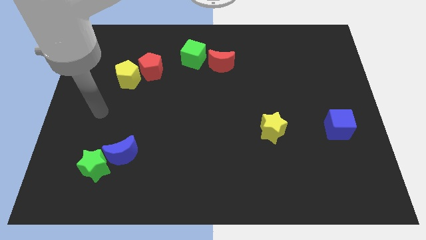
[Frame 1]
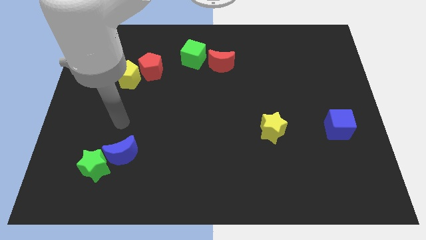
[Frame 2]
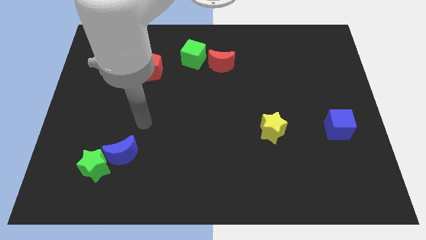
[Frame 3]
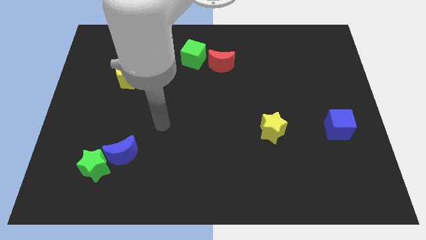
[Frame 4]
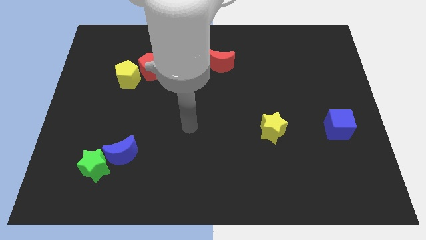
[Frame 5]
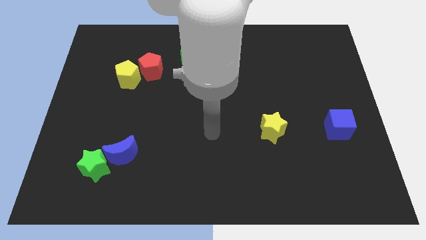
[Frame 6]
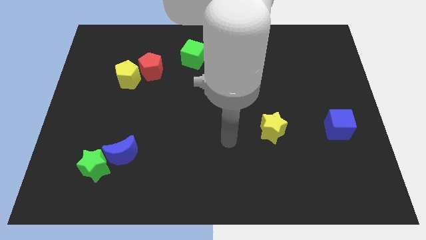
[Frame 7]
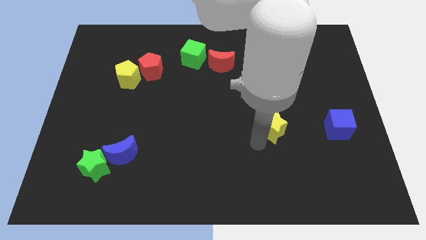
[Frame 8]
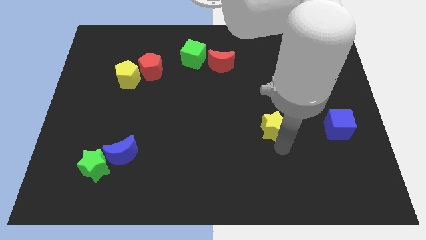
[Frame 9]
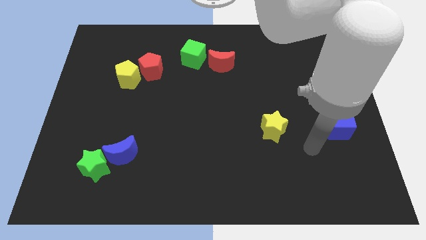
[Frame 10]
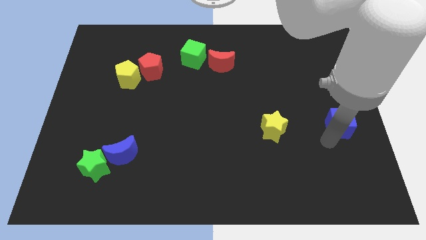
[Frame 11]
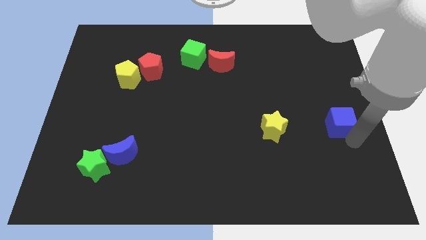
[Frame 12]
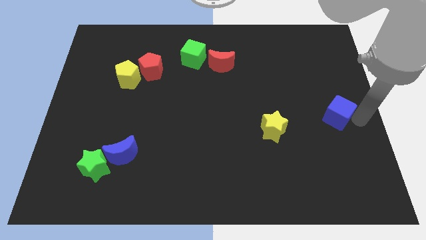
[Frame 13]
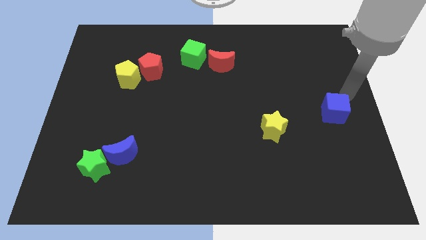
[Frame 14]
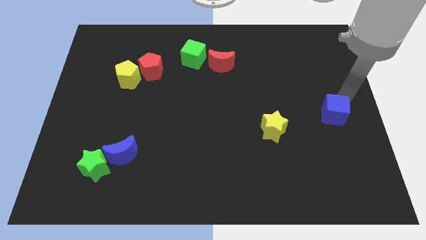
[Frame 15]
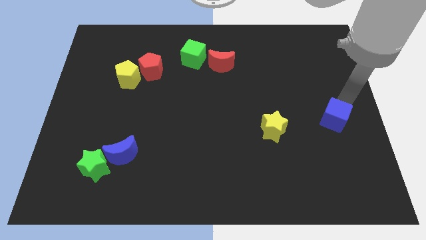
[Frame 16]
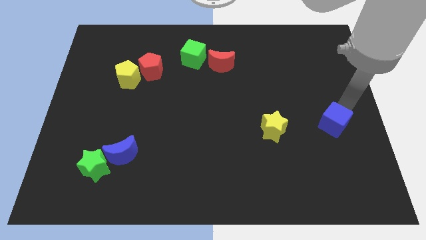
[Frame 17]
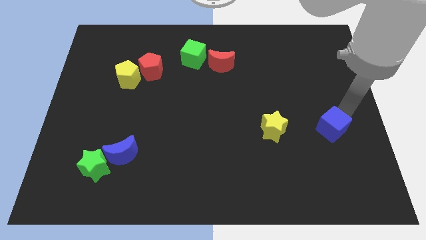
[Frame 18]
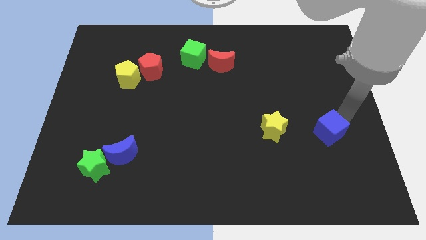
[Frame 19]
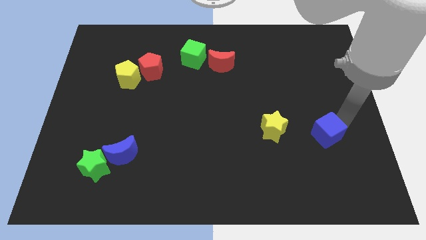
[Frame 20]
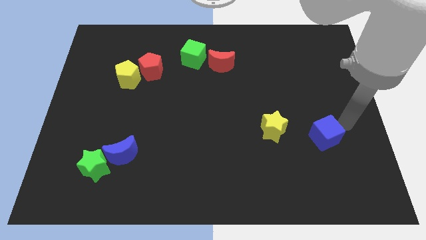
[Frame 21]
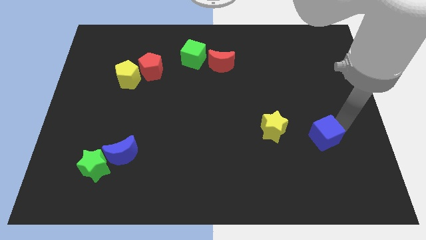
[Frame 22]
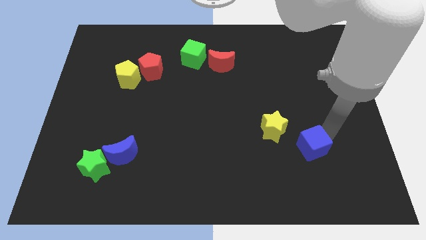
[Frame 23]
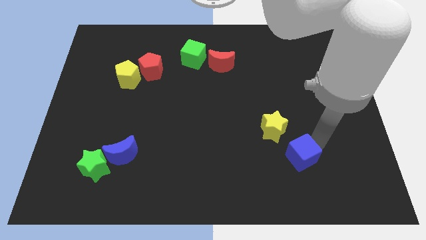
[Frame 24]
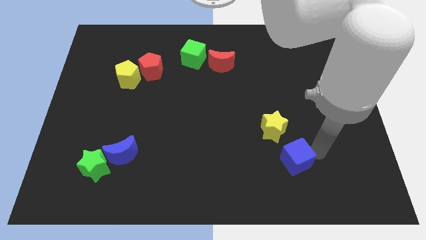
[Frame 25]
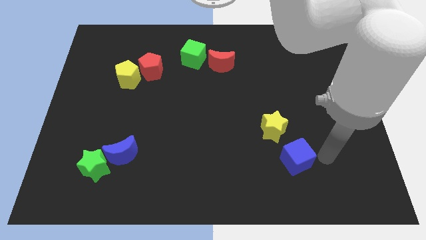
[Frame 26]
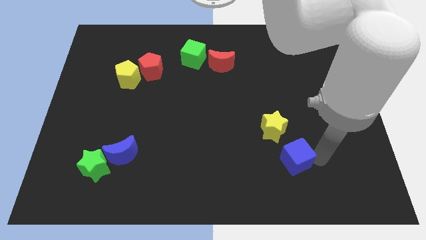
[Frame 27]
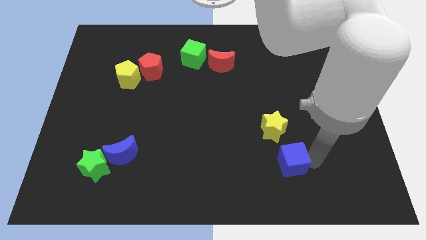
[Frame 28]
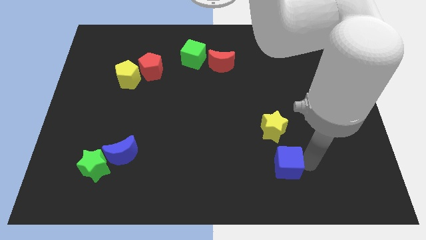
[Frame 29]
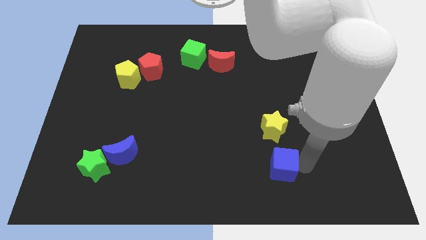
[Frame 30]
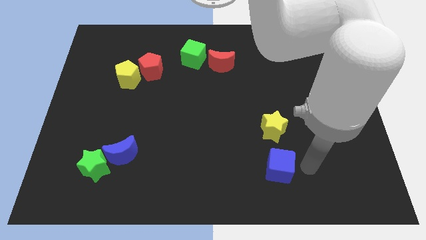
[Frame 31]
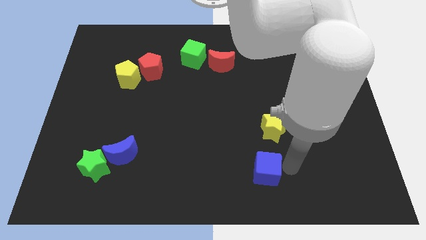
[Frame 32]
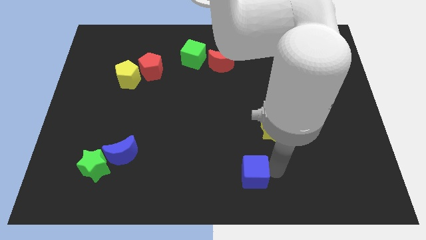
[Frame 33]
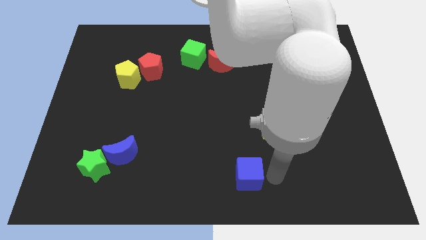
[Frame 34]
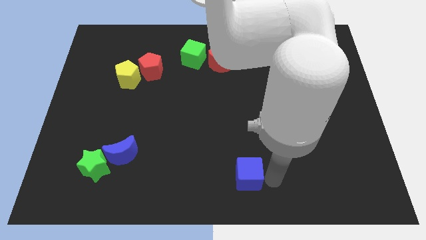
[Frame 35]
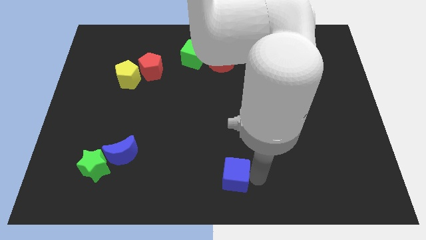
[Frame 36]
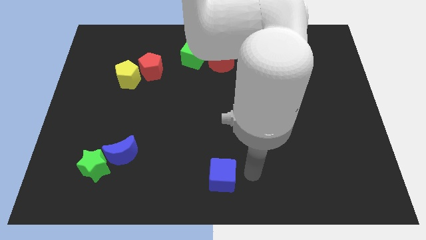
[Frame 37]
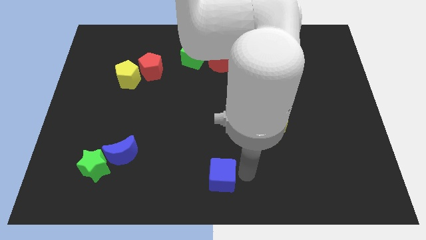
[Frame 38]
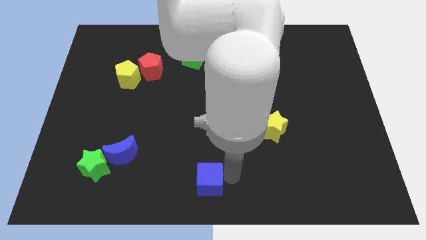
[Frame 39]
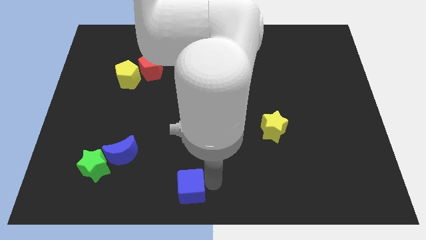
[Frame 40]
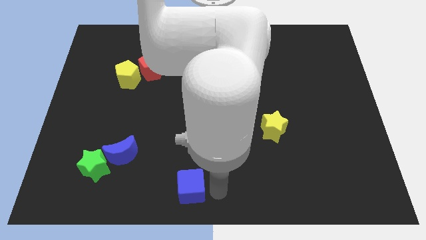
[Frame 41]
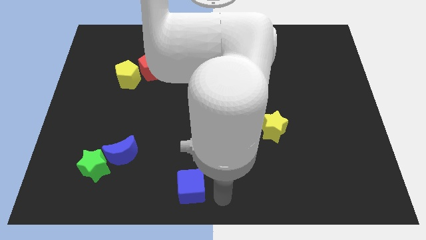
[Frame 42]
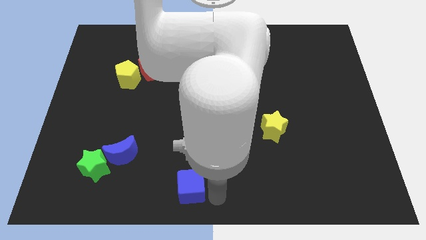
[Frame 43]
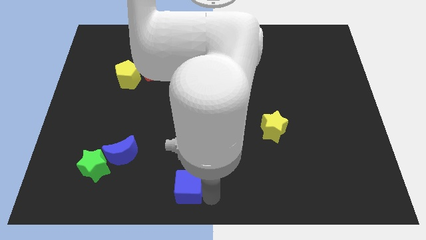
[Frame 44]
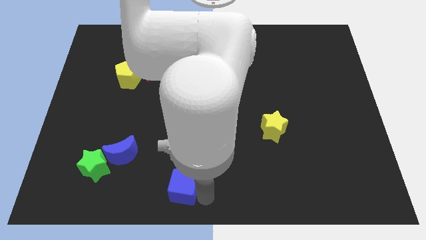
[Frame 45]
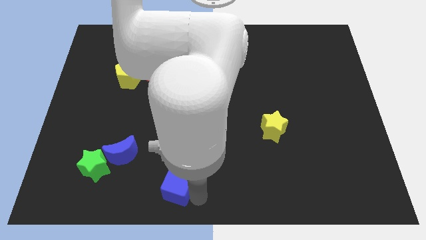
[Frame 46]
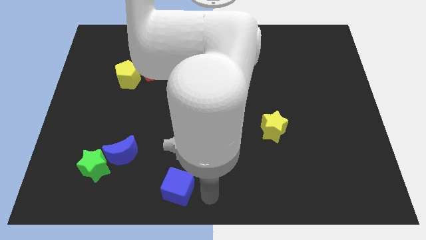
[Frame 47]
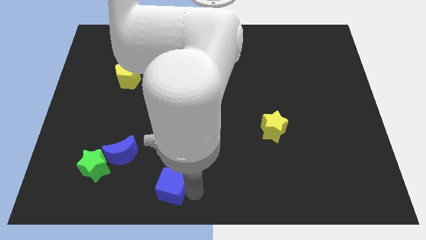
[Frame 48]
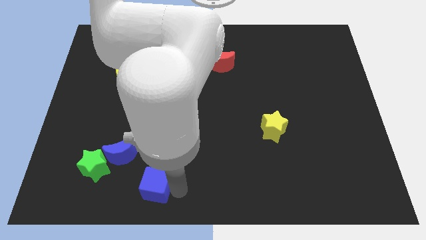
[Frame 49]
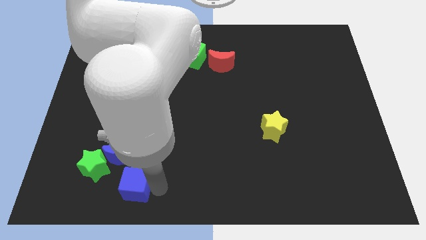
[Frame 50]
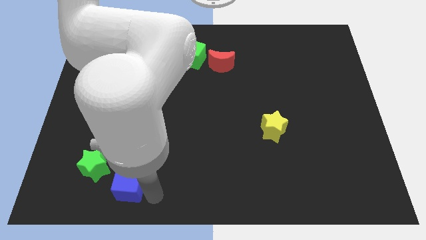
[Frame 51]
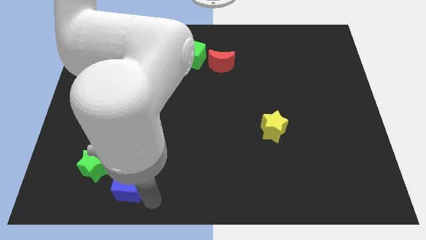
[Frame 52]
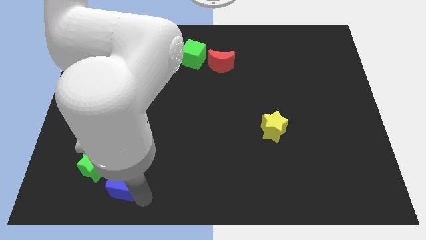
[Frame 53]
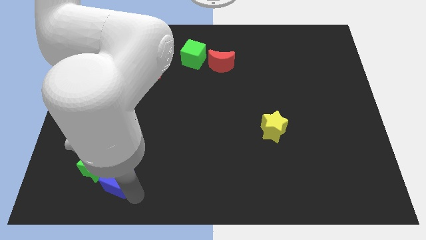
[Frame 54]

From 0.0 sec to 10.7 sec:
put the blue cube to the green star

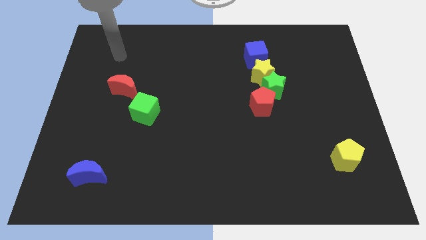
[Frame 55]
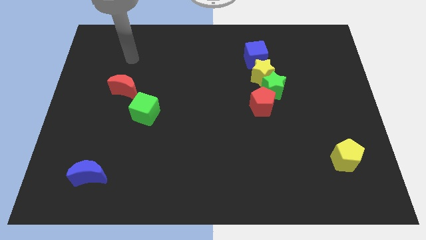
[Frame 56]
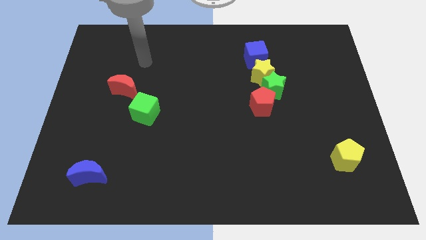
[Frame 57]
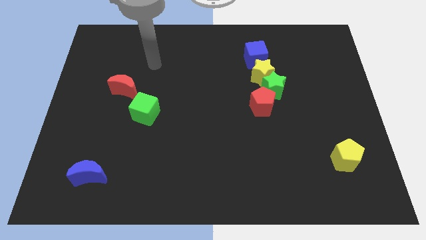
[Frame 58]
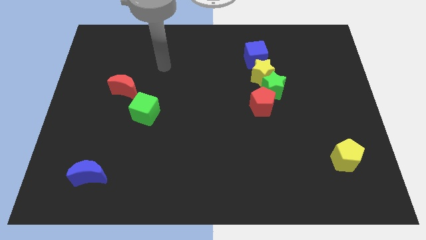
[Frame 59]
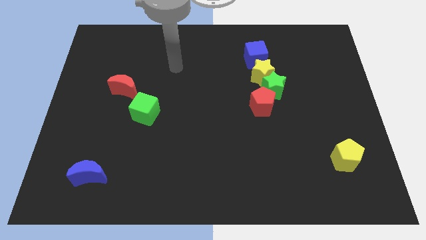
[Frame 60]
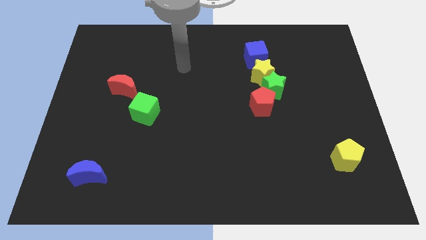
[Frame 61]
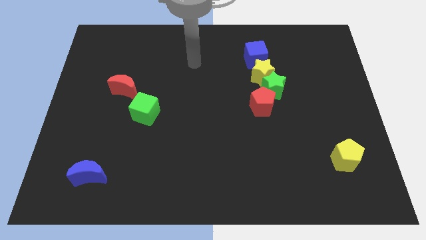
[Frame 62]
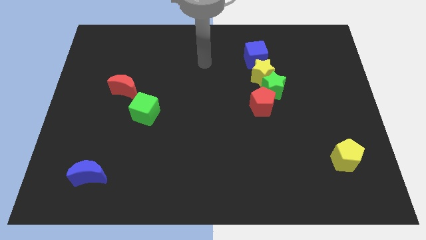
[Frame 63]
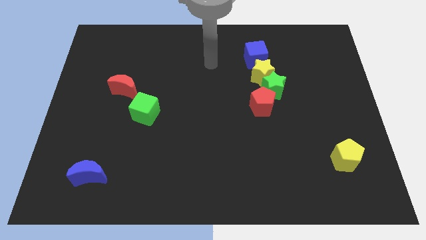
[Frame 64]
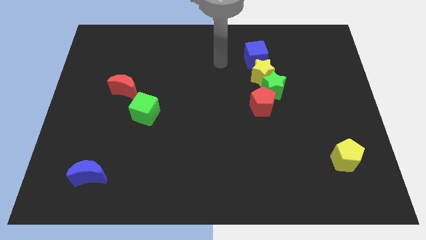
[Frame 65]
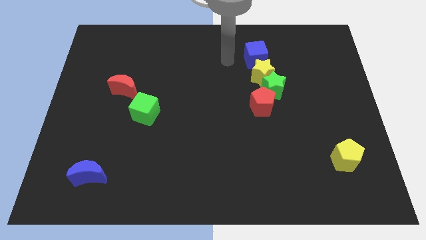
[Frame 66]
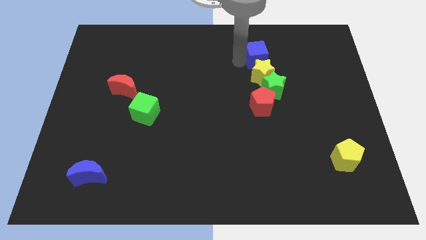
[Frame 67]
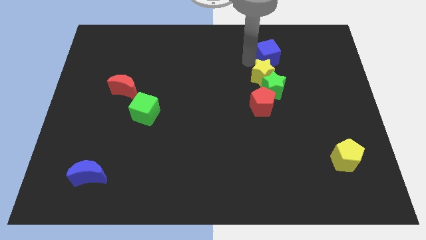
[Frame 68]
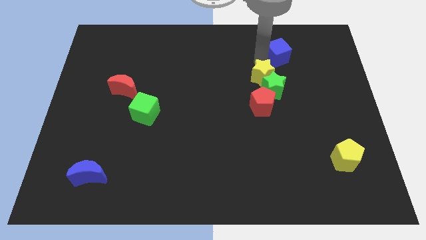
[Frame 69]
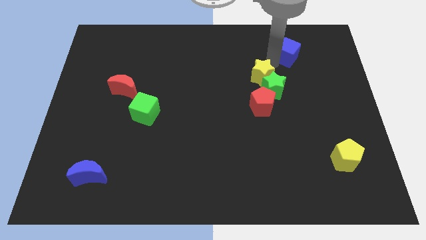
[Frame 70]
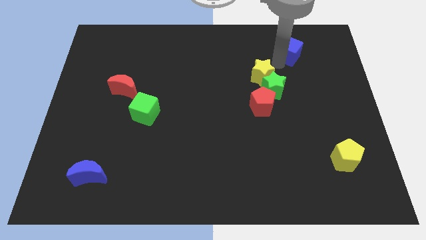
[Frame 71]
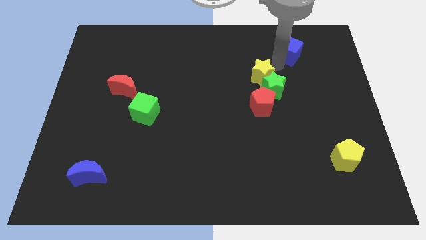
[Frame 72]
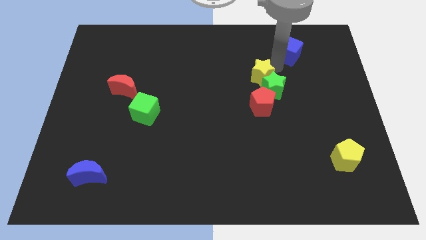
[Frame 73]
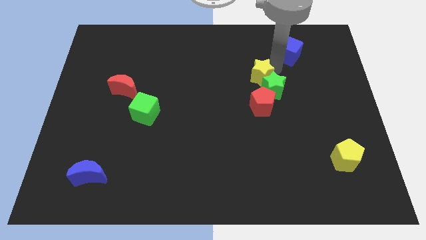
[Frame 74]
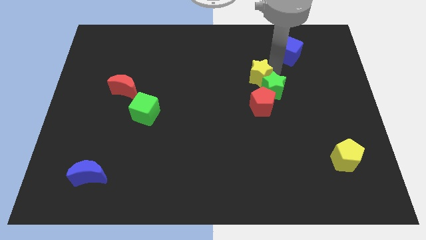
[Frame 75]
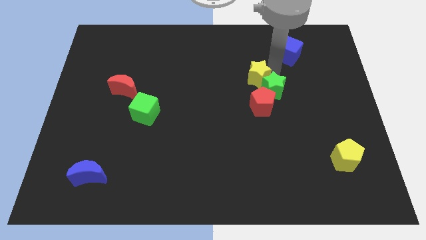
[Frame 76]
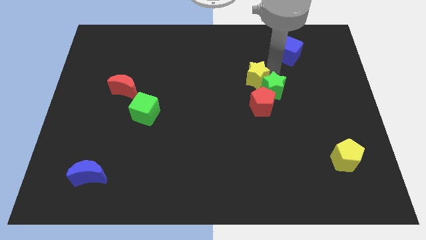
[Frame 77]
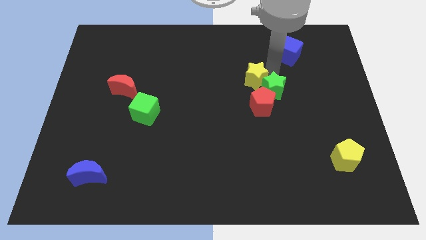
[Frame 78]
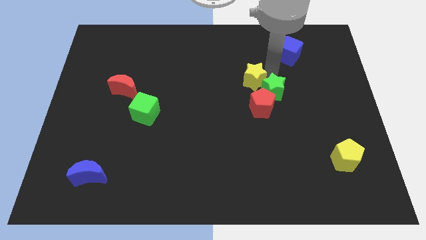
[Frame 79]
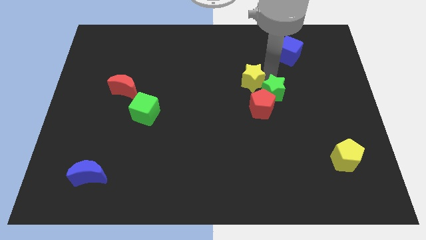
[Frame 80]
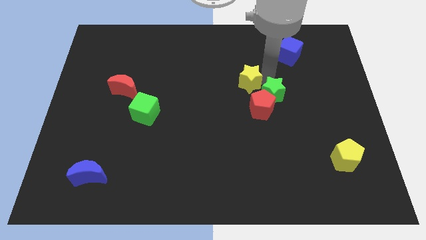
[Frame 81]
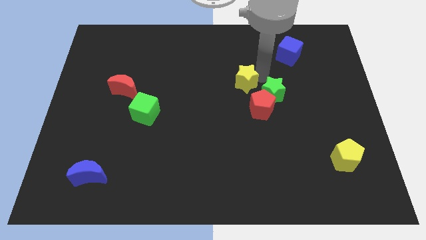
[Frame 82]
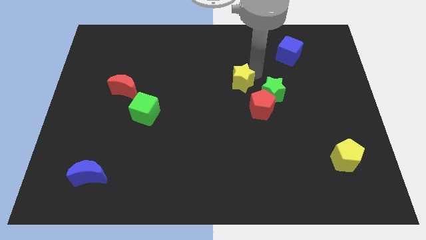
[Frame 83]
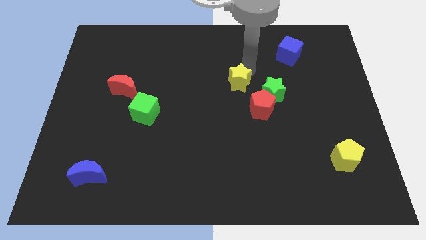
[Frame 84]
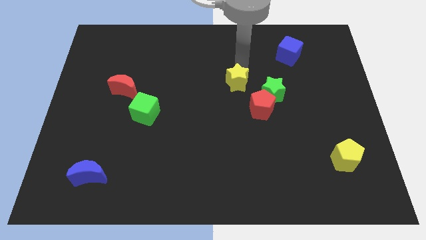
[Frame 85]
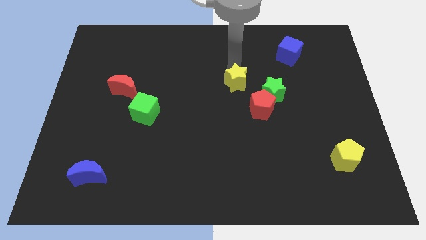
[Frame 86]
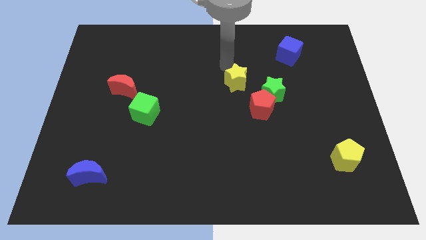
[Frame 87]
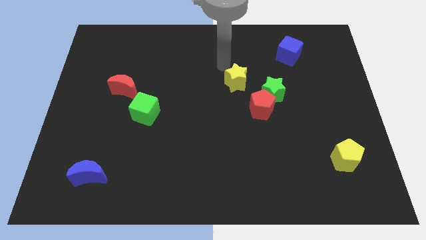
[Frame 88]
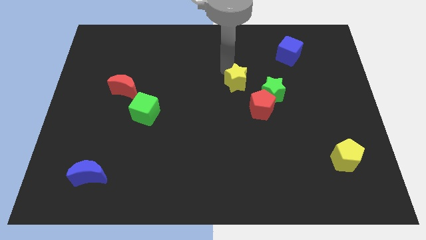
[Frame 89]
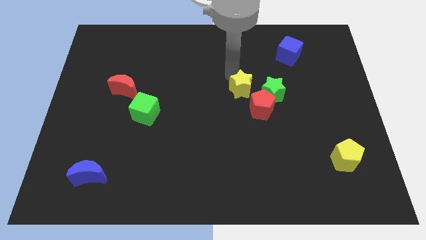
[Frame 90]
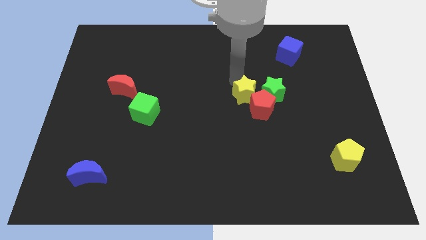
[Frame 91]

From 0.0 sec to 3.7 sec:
move the yellow star next to the red pentagon
